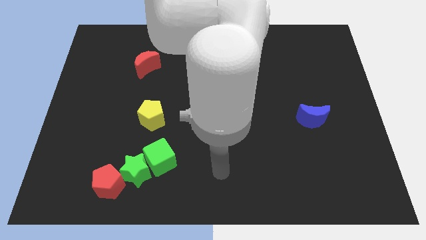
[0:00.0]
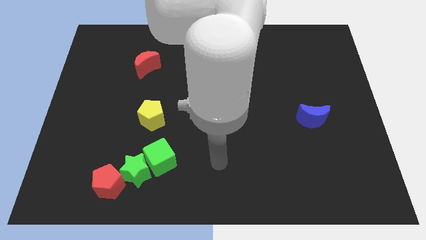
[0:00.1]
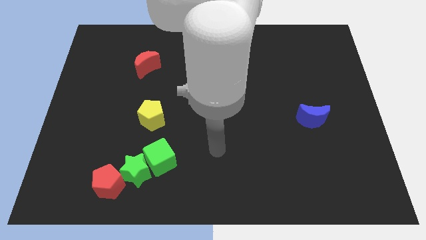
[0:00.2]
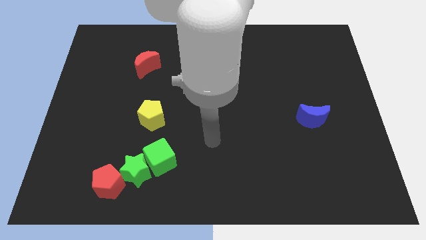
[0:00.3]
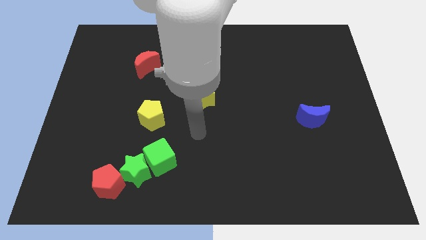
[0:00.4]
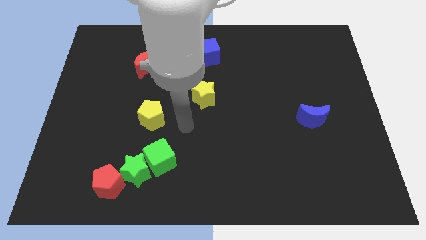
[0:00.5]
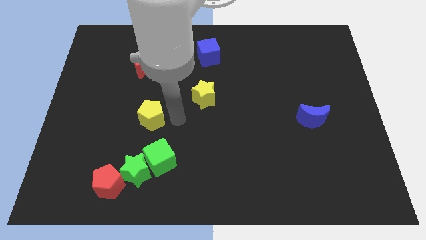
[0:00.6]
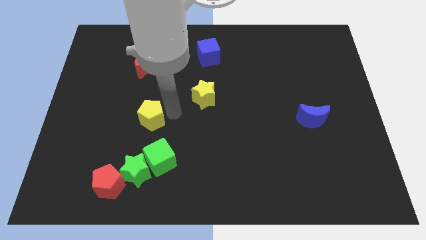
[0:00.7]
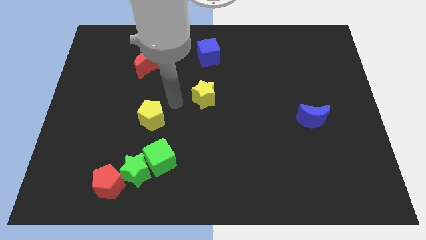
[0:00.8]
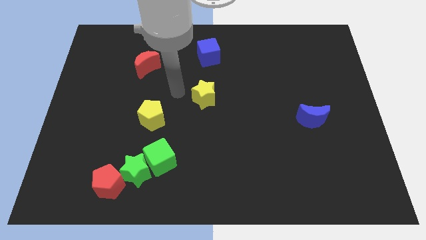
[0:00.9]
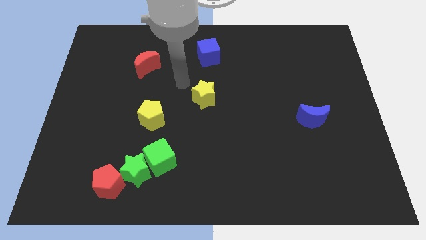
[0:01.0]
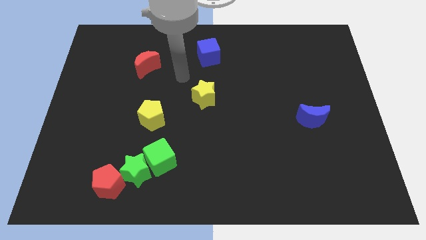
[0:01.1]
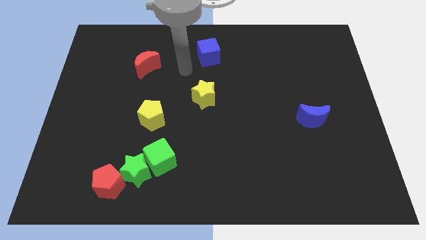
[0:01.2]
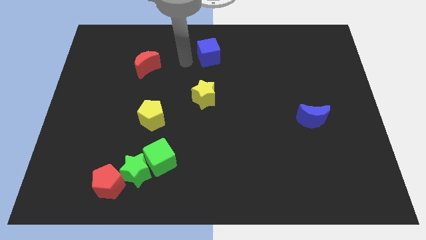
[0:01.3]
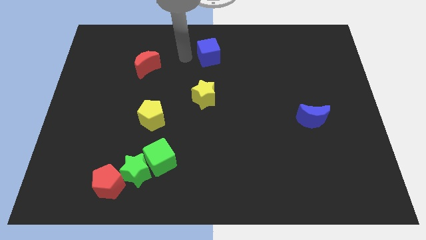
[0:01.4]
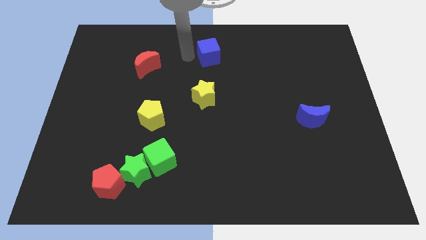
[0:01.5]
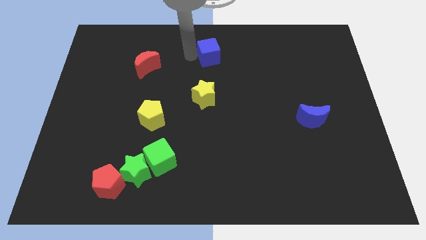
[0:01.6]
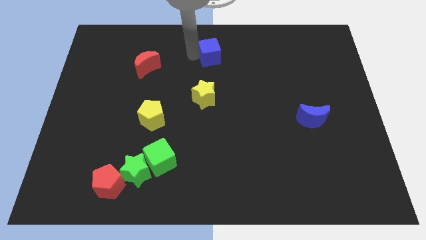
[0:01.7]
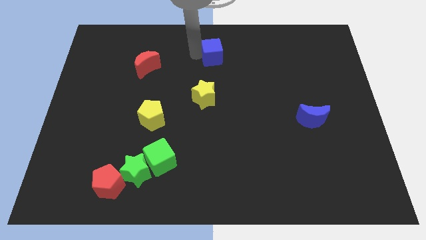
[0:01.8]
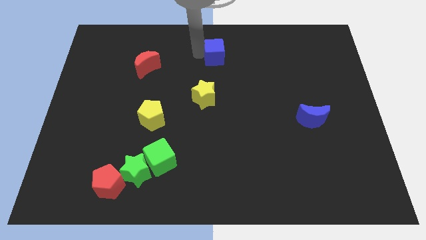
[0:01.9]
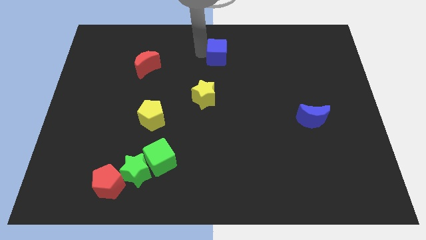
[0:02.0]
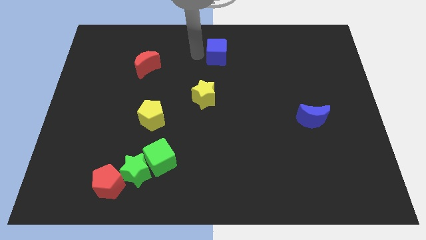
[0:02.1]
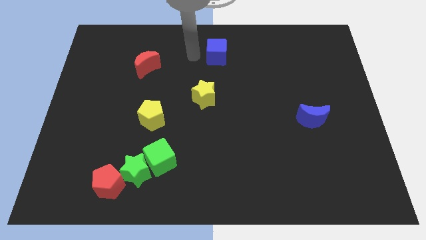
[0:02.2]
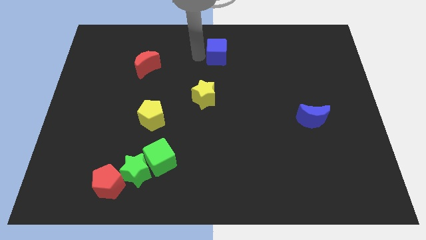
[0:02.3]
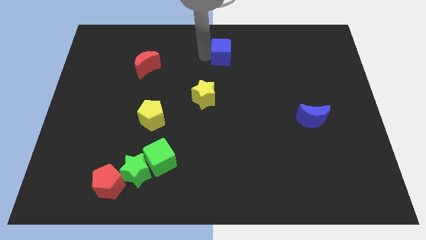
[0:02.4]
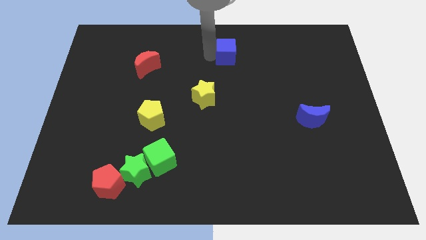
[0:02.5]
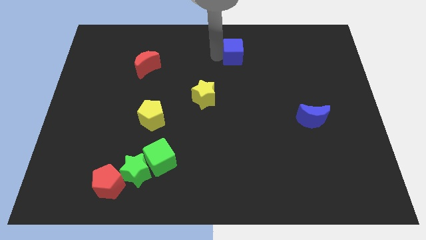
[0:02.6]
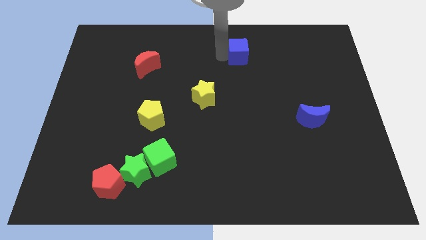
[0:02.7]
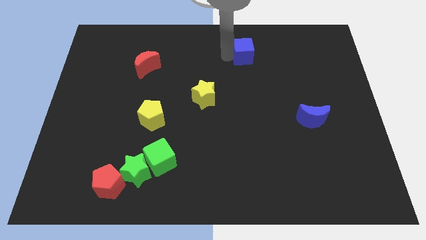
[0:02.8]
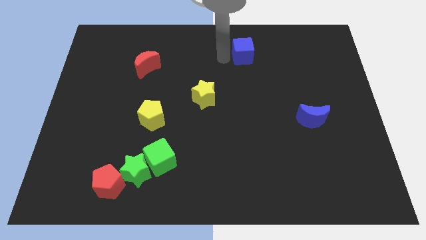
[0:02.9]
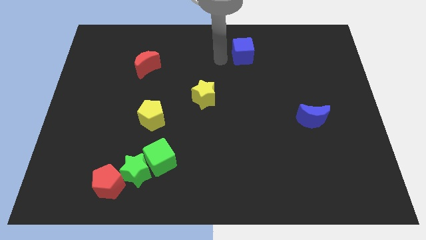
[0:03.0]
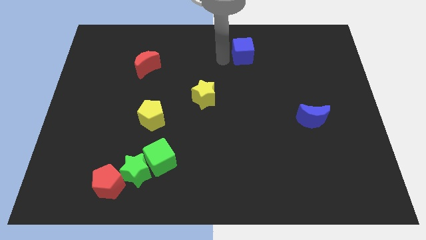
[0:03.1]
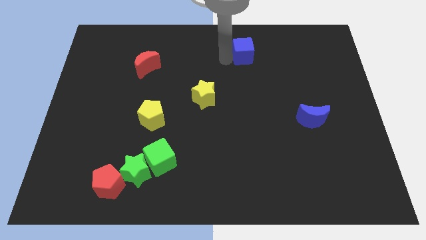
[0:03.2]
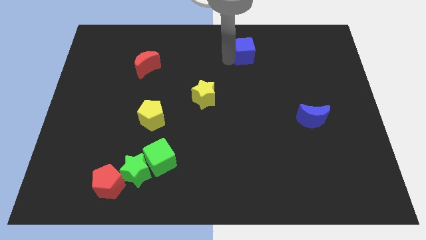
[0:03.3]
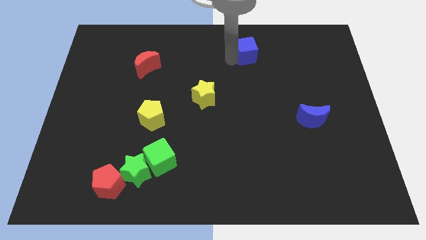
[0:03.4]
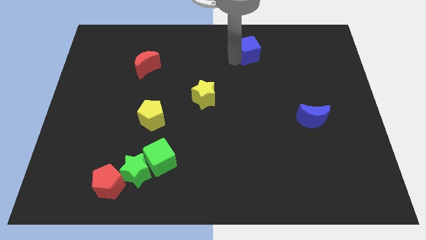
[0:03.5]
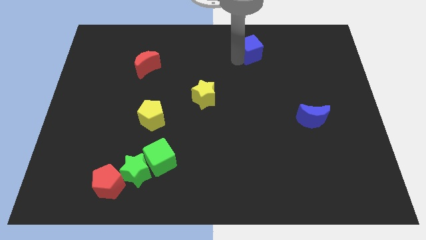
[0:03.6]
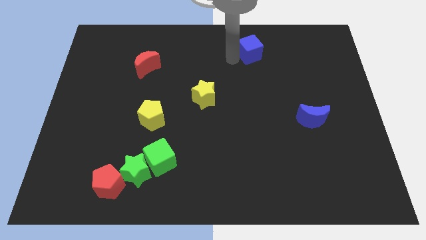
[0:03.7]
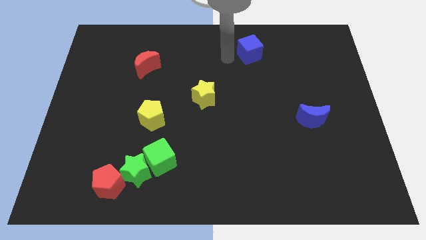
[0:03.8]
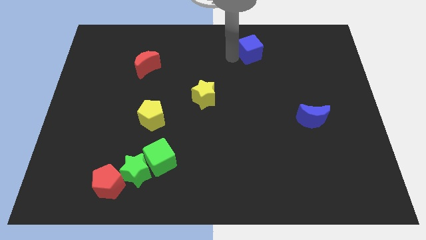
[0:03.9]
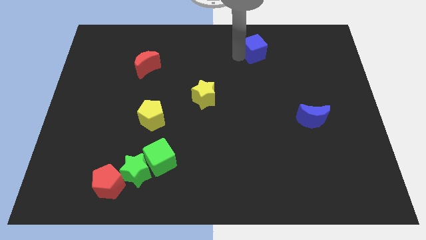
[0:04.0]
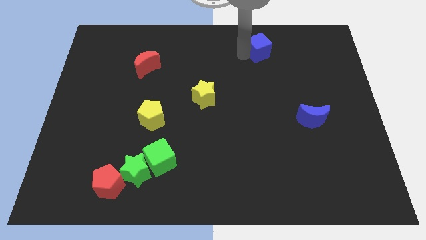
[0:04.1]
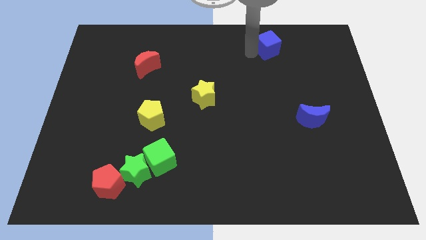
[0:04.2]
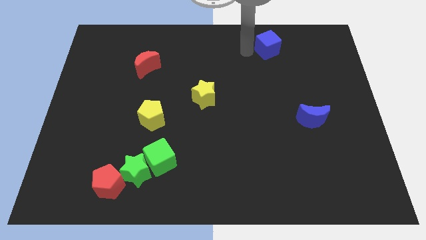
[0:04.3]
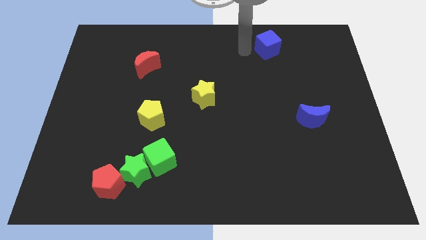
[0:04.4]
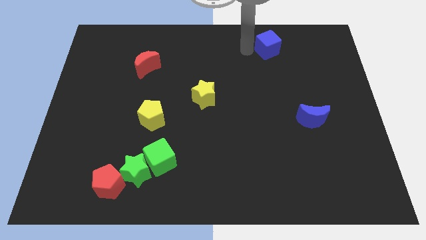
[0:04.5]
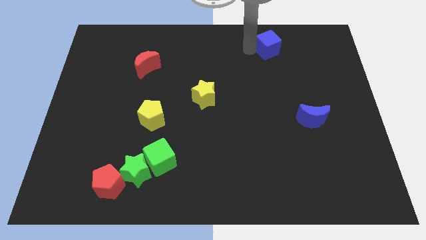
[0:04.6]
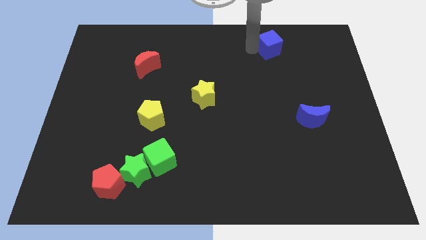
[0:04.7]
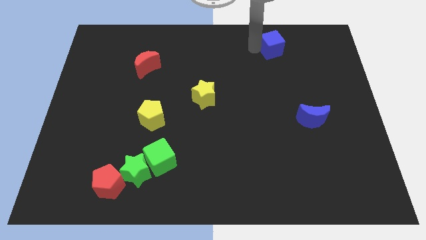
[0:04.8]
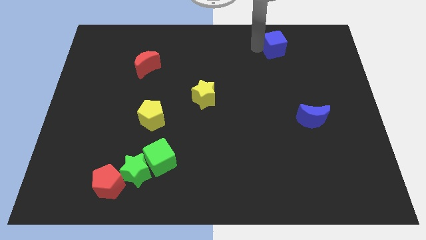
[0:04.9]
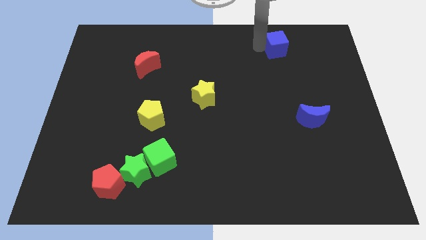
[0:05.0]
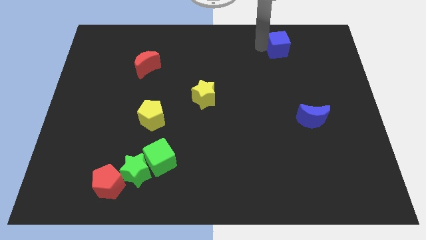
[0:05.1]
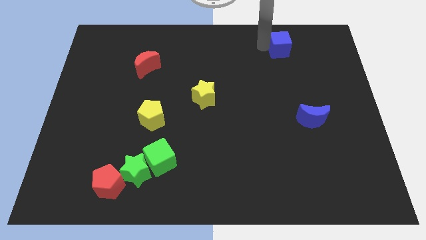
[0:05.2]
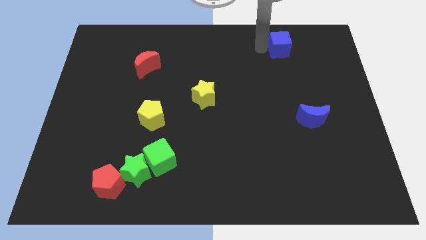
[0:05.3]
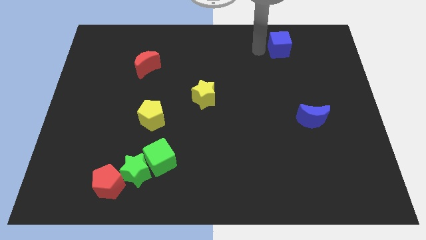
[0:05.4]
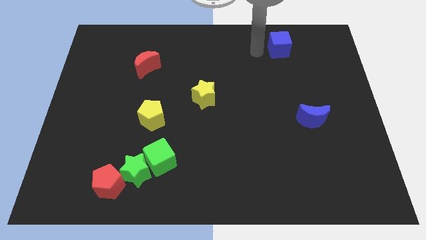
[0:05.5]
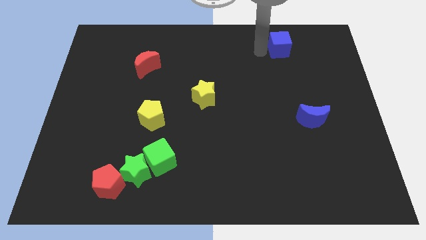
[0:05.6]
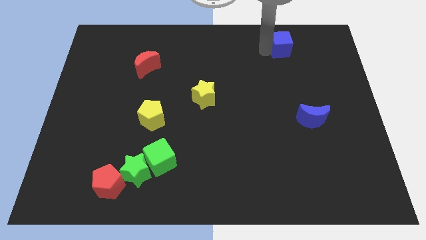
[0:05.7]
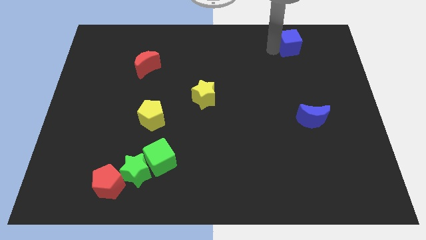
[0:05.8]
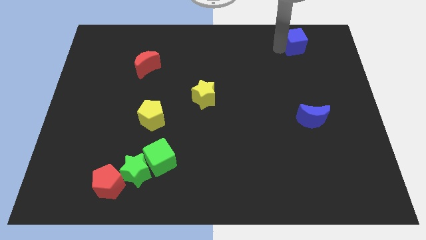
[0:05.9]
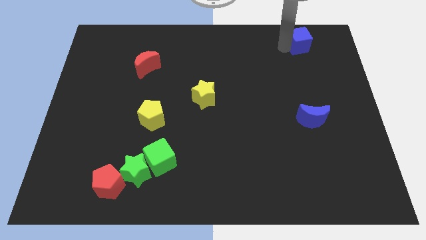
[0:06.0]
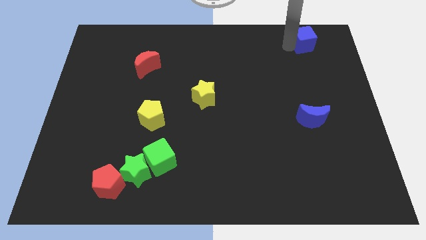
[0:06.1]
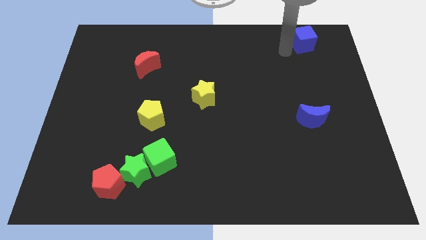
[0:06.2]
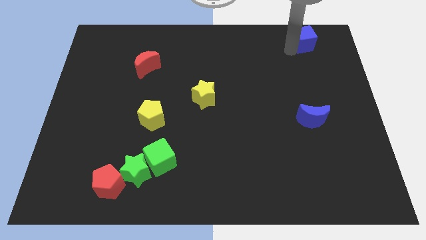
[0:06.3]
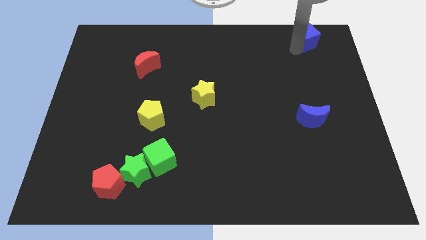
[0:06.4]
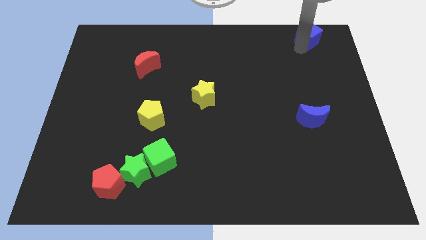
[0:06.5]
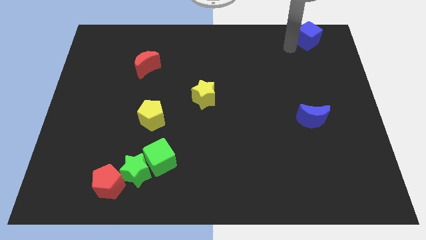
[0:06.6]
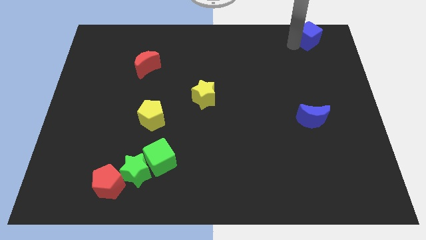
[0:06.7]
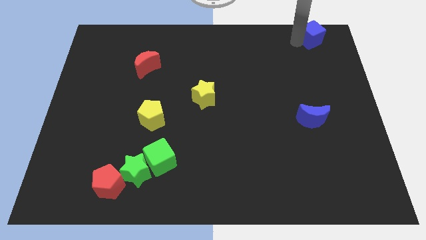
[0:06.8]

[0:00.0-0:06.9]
put the blue cube to the upper right corner

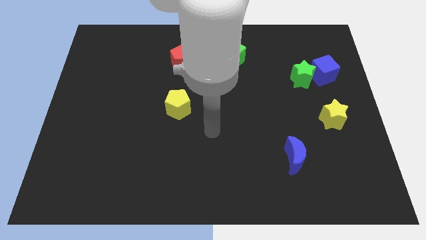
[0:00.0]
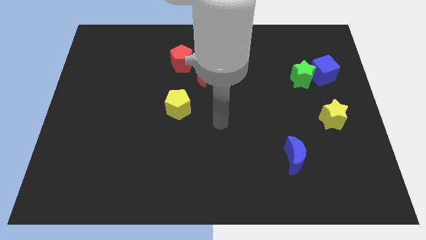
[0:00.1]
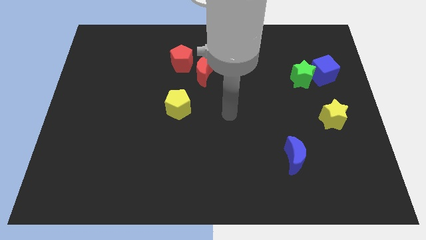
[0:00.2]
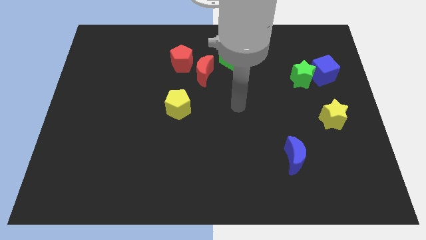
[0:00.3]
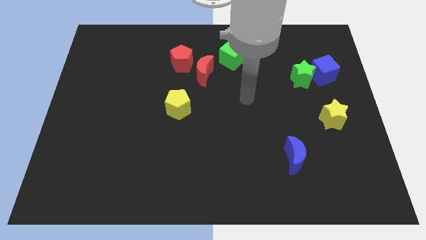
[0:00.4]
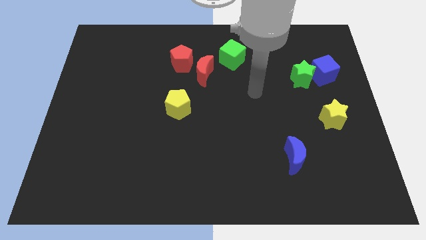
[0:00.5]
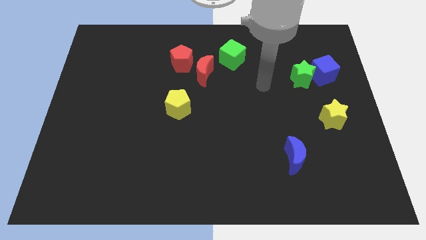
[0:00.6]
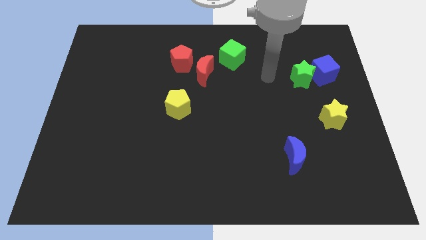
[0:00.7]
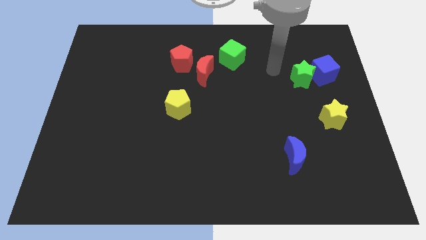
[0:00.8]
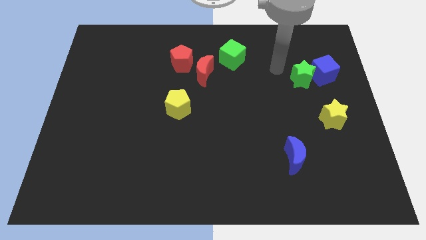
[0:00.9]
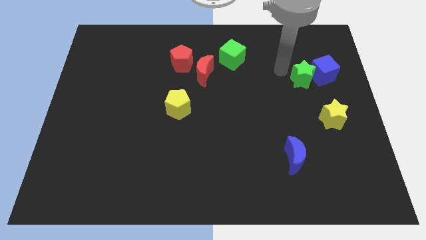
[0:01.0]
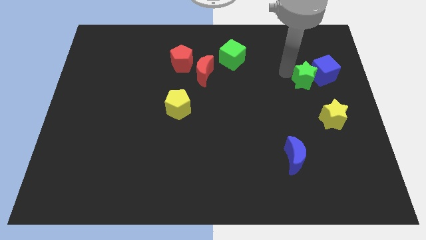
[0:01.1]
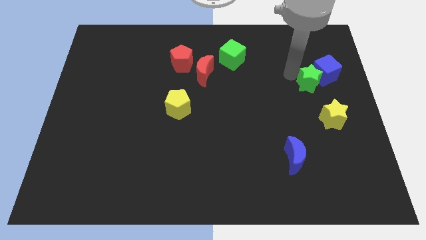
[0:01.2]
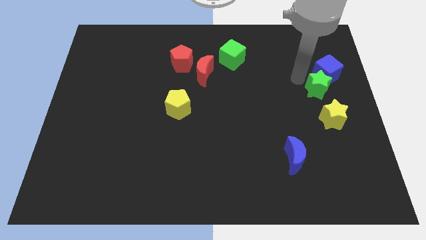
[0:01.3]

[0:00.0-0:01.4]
slide the green star to the right side
